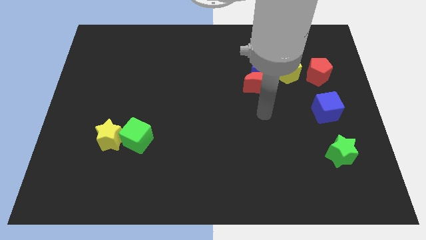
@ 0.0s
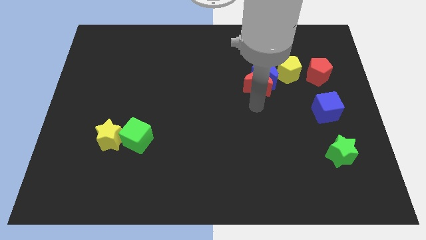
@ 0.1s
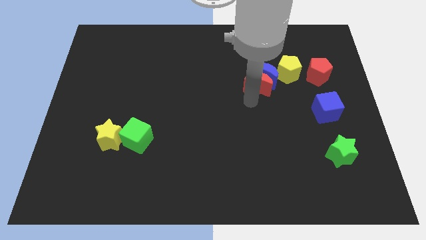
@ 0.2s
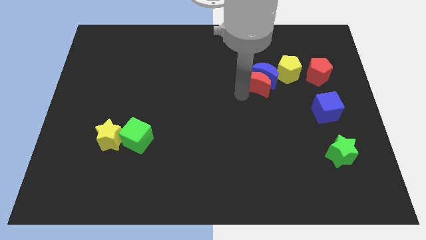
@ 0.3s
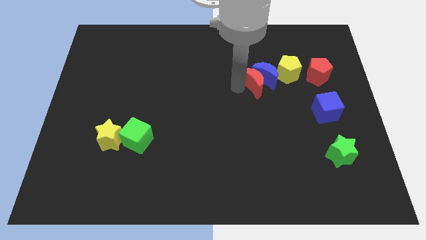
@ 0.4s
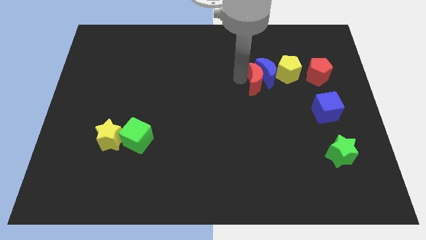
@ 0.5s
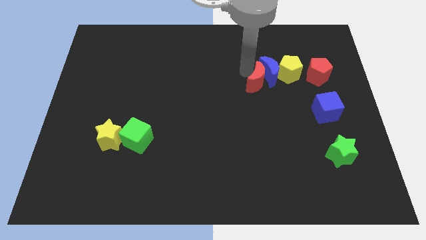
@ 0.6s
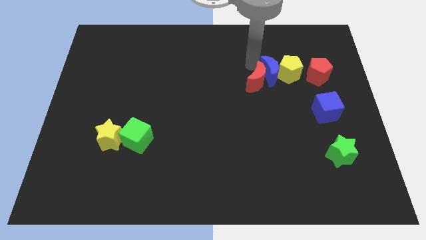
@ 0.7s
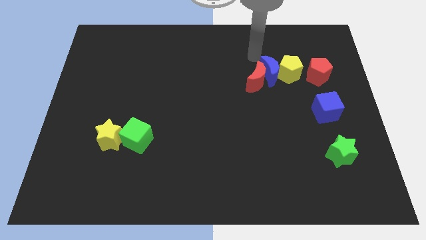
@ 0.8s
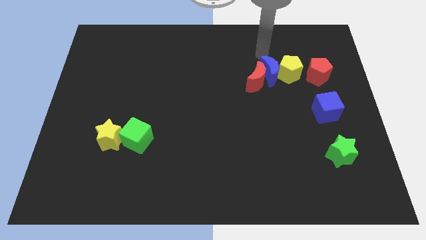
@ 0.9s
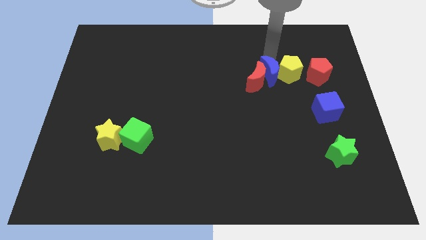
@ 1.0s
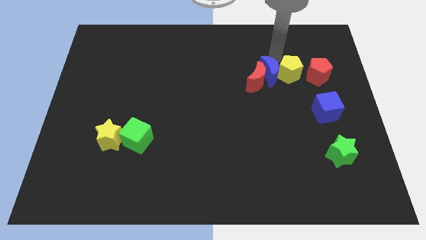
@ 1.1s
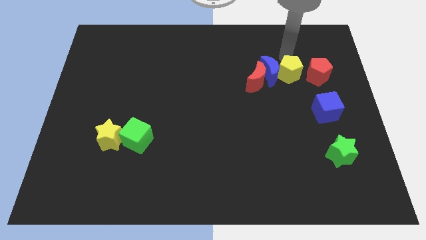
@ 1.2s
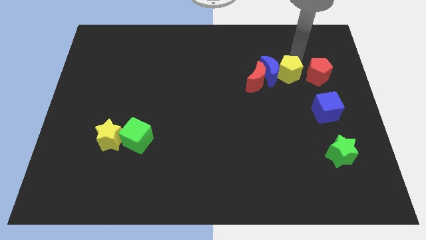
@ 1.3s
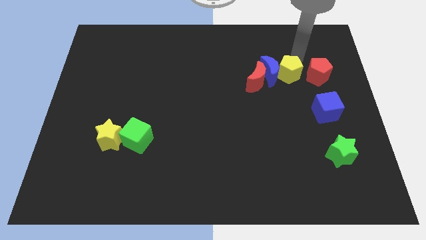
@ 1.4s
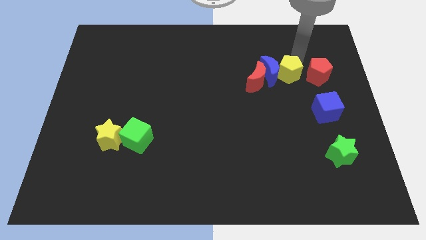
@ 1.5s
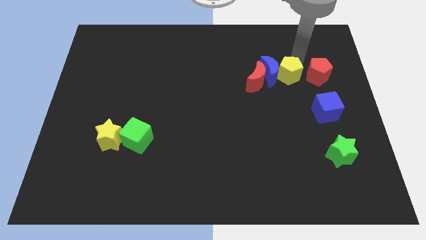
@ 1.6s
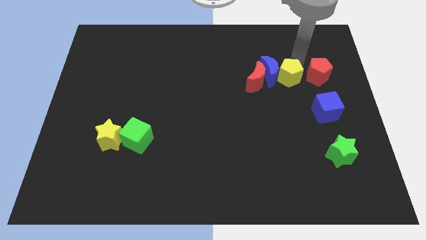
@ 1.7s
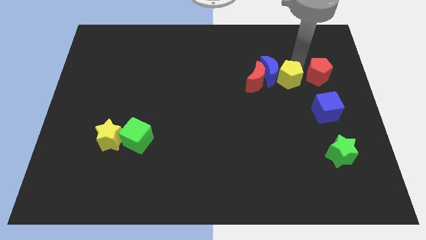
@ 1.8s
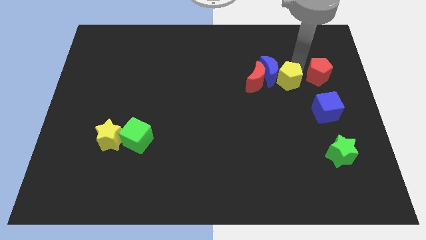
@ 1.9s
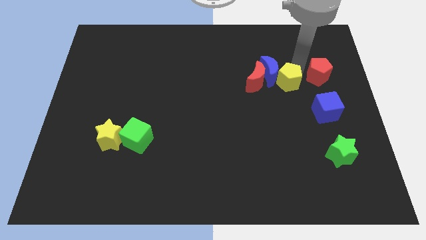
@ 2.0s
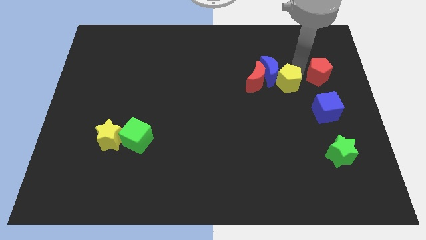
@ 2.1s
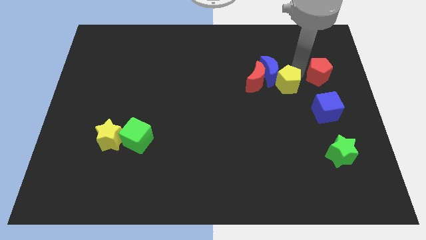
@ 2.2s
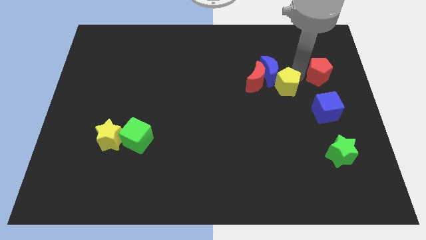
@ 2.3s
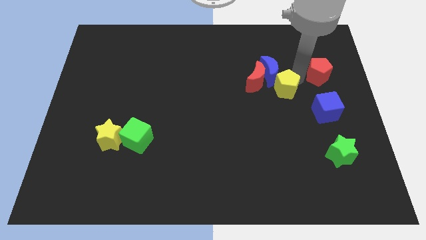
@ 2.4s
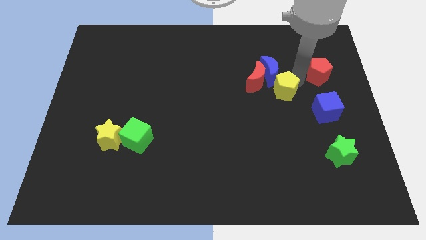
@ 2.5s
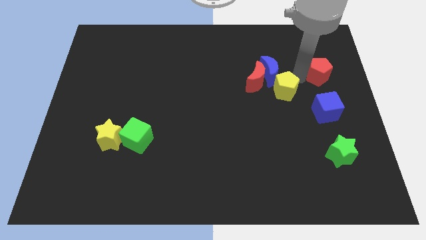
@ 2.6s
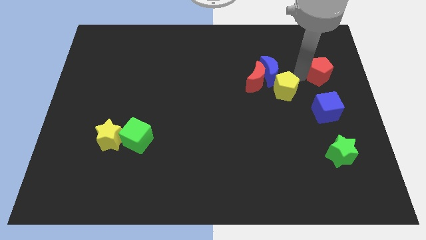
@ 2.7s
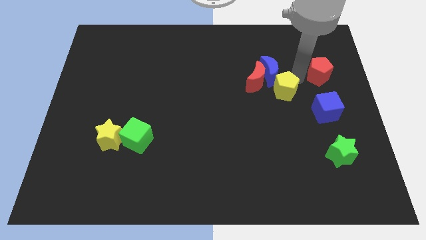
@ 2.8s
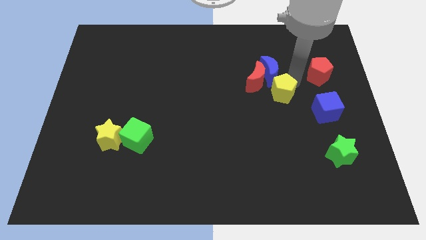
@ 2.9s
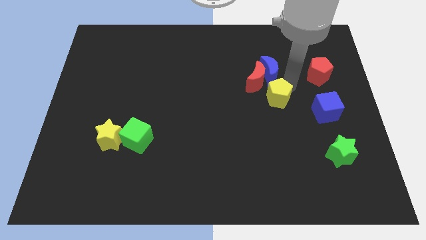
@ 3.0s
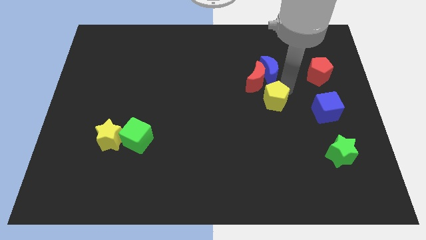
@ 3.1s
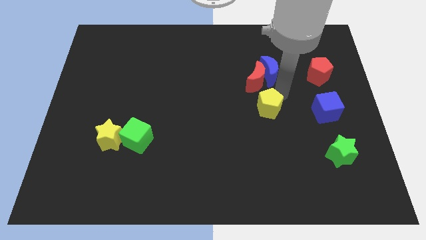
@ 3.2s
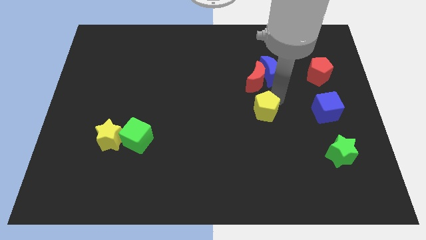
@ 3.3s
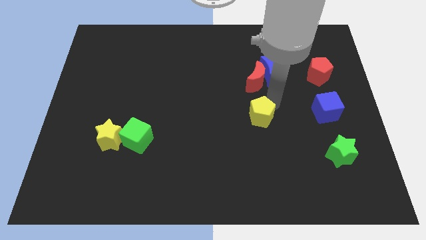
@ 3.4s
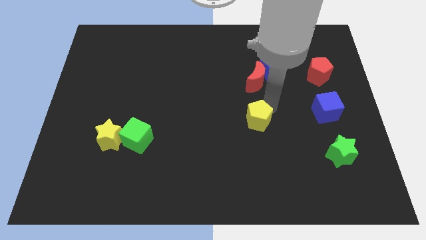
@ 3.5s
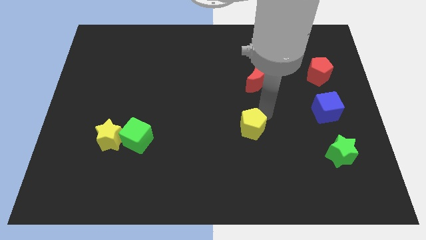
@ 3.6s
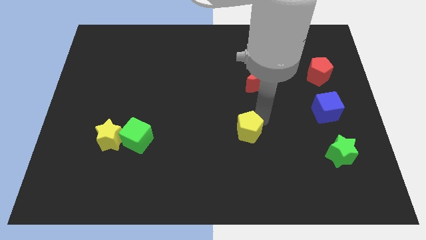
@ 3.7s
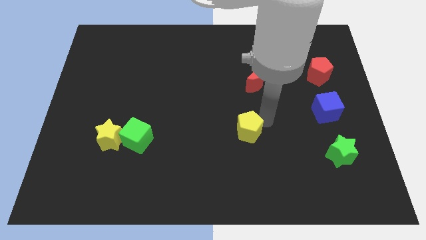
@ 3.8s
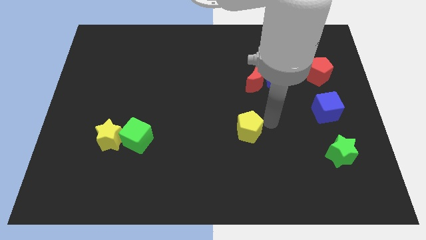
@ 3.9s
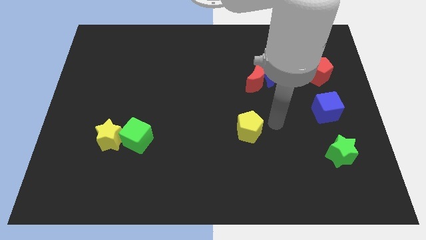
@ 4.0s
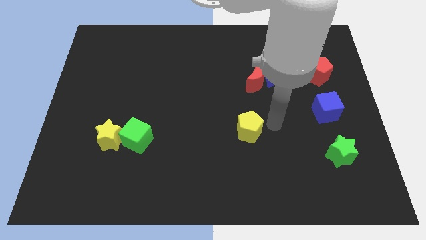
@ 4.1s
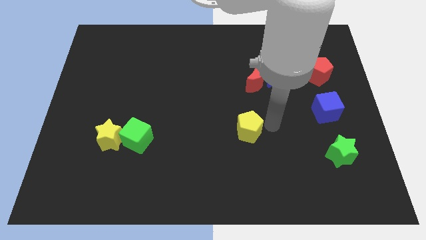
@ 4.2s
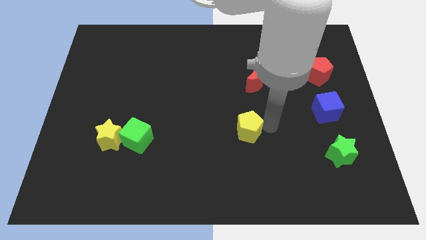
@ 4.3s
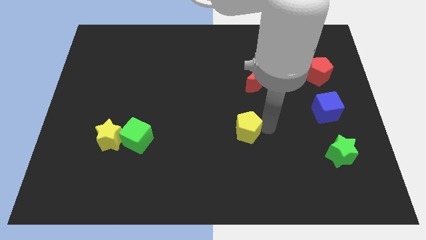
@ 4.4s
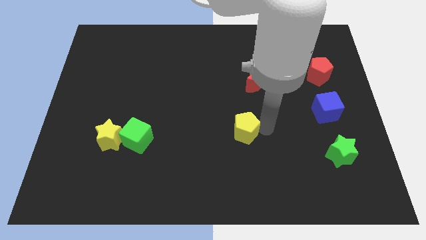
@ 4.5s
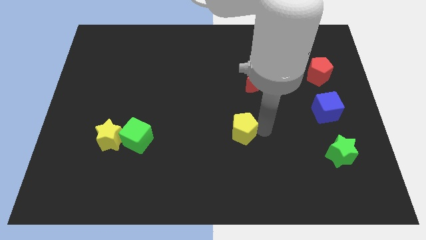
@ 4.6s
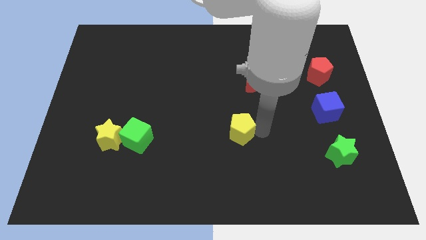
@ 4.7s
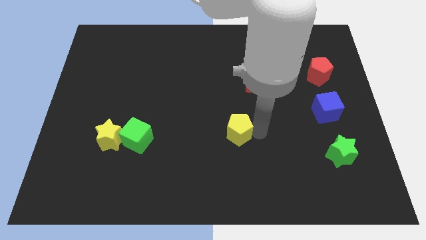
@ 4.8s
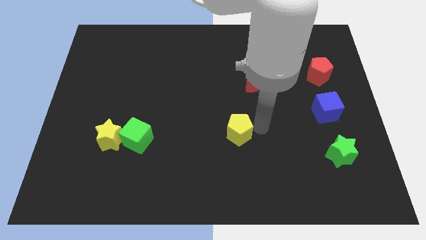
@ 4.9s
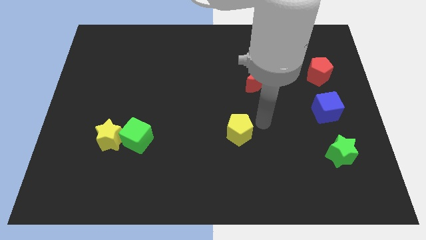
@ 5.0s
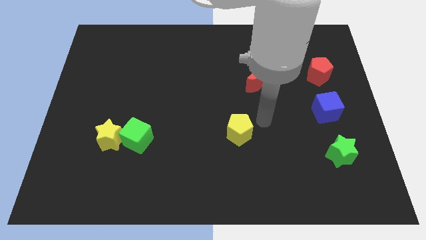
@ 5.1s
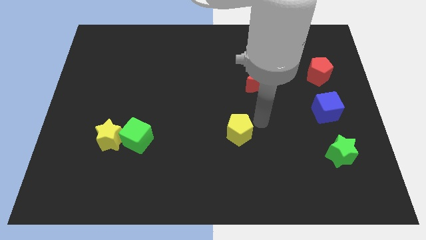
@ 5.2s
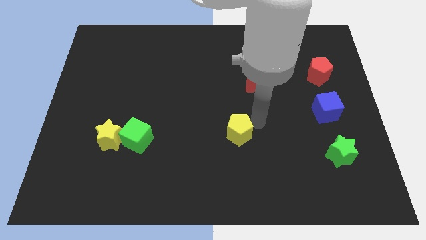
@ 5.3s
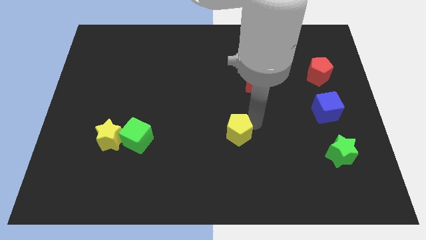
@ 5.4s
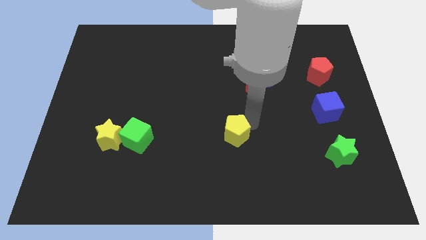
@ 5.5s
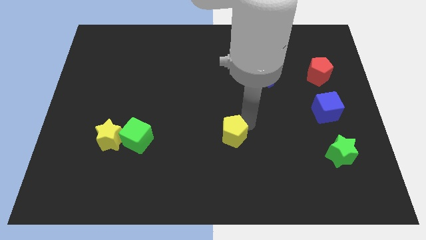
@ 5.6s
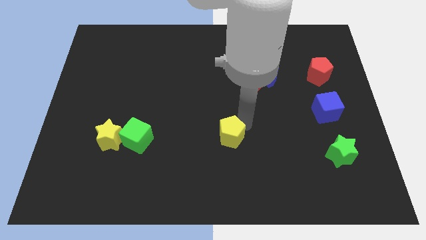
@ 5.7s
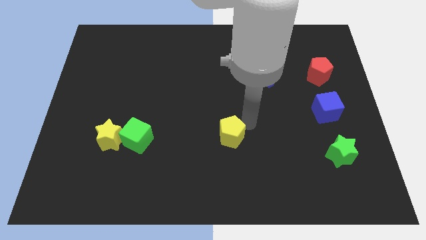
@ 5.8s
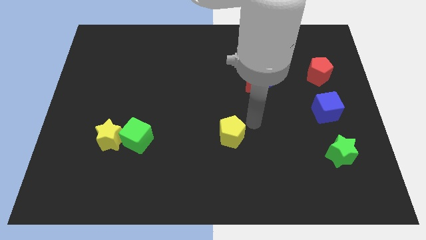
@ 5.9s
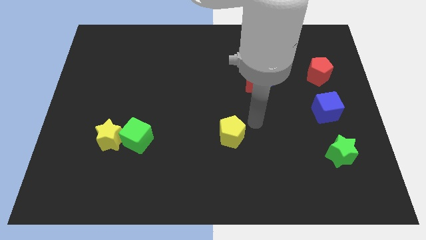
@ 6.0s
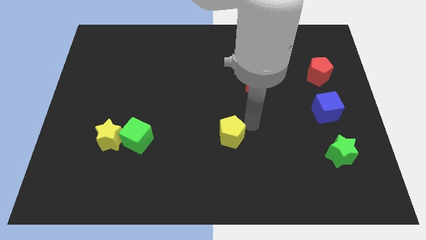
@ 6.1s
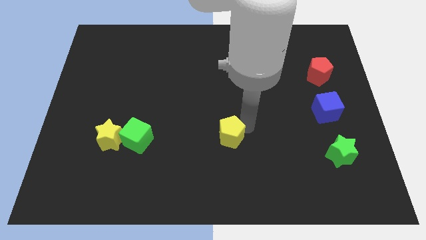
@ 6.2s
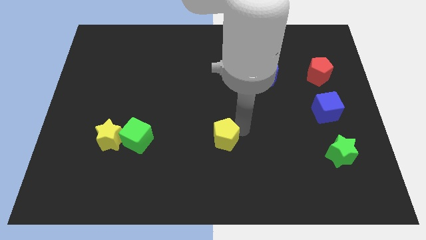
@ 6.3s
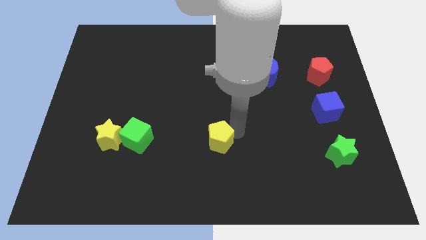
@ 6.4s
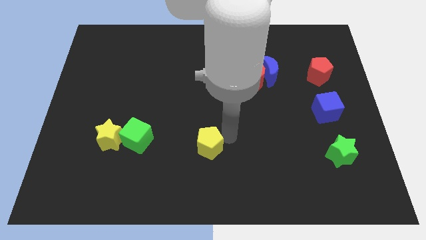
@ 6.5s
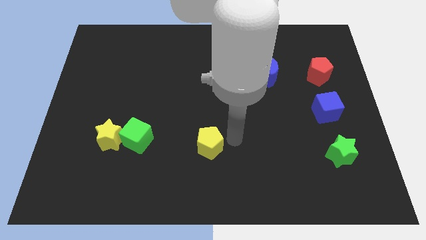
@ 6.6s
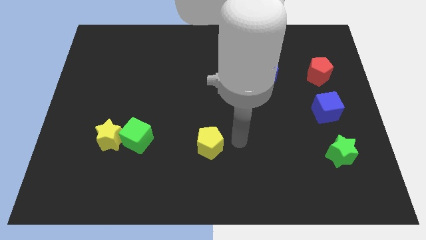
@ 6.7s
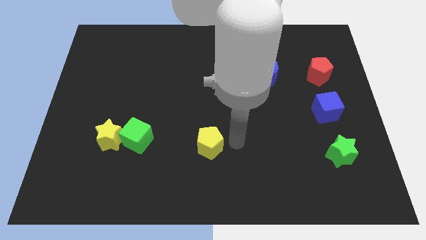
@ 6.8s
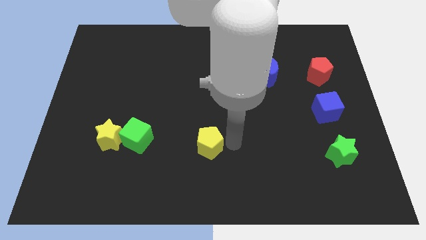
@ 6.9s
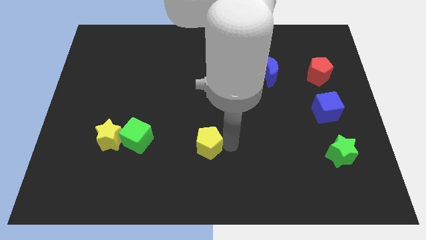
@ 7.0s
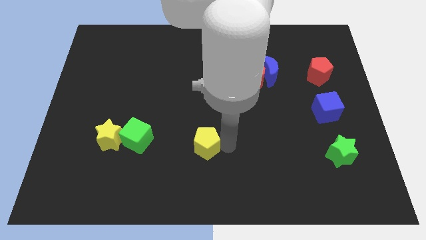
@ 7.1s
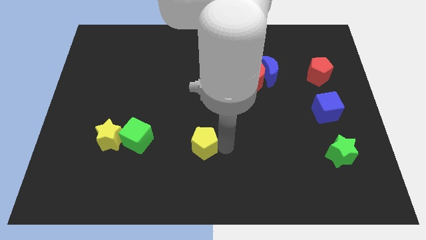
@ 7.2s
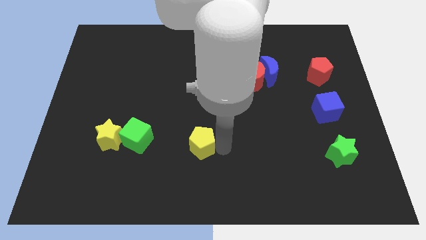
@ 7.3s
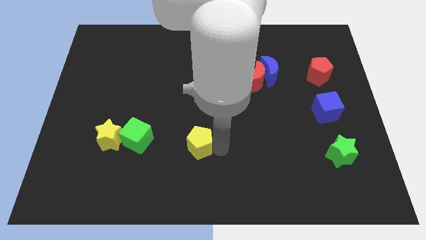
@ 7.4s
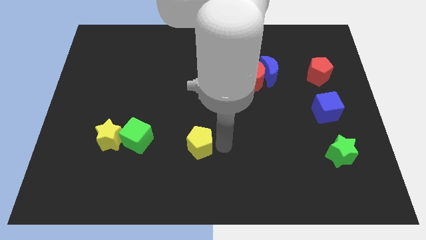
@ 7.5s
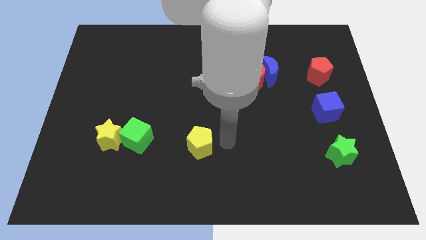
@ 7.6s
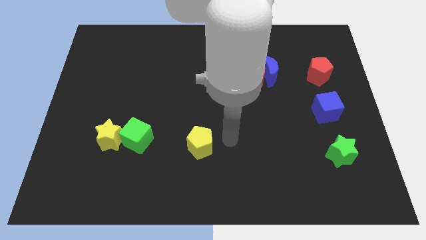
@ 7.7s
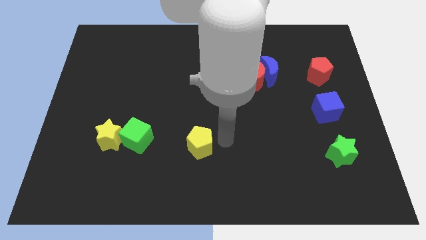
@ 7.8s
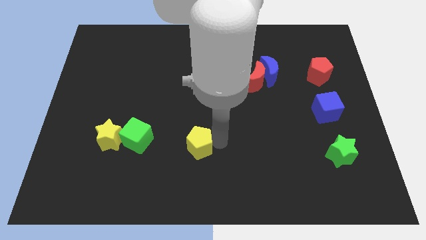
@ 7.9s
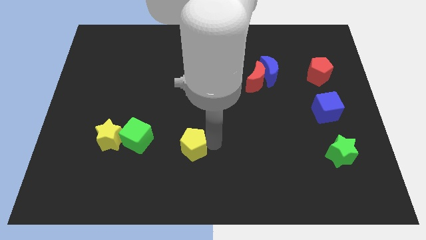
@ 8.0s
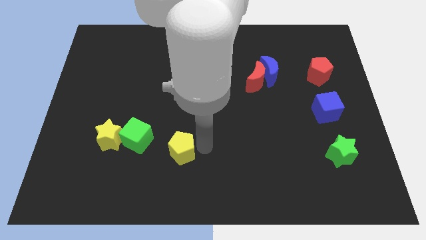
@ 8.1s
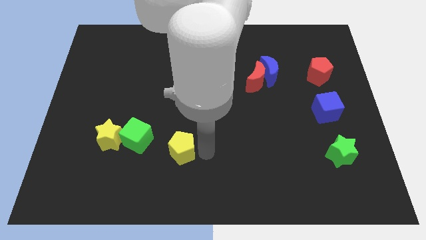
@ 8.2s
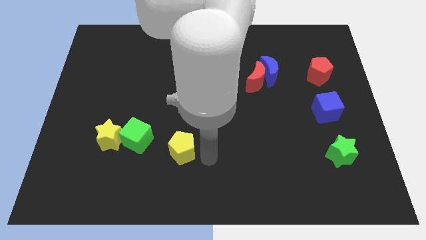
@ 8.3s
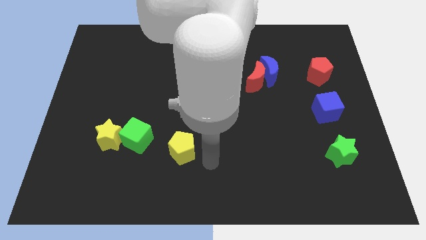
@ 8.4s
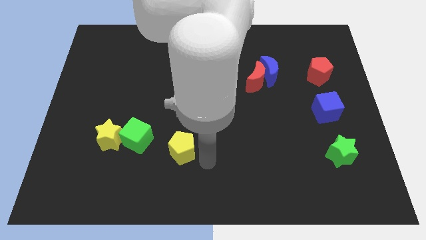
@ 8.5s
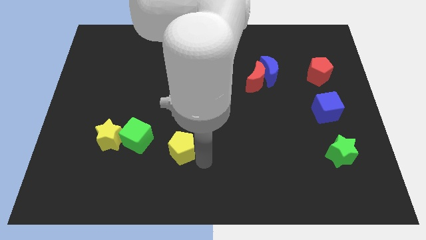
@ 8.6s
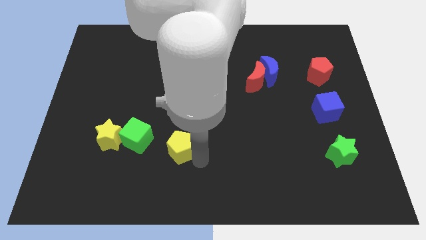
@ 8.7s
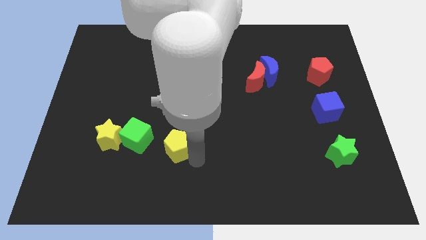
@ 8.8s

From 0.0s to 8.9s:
put the yellow pentagon right of the yellow star
